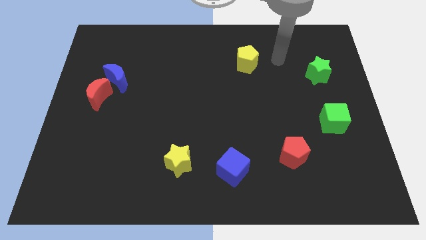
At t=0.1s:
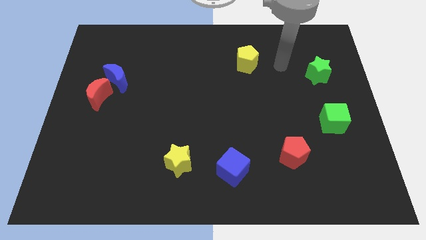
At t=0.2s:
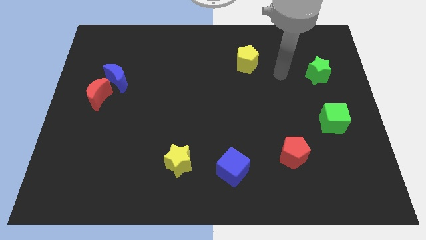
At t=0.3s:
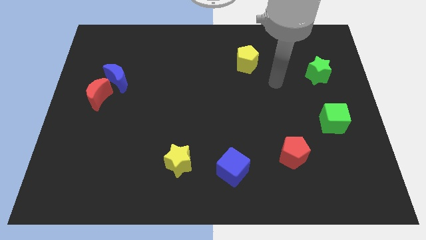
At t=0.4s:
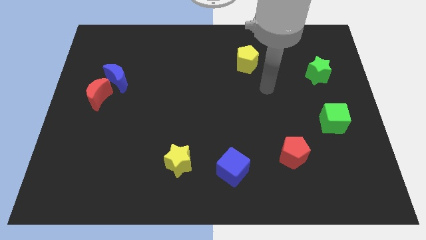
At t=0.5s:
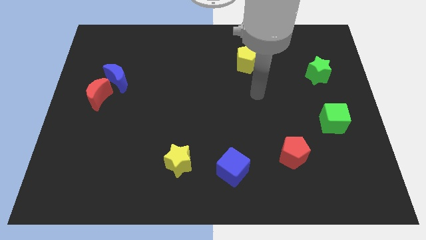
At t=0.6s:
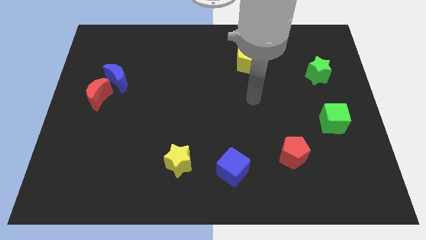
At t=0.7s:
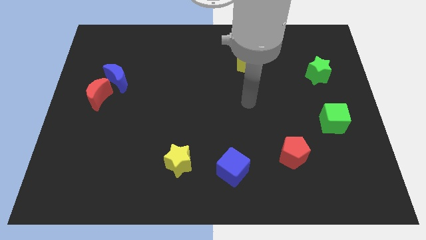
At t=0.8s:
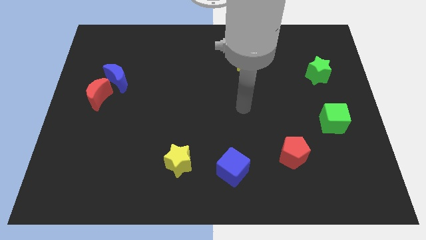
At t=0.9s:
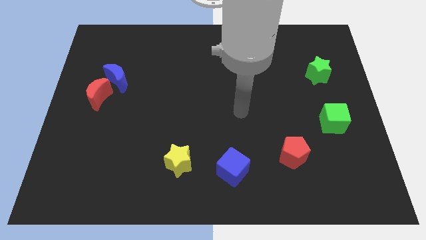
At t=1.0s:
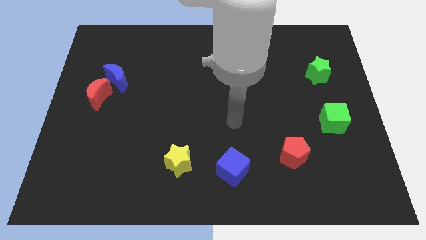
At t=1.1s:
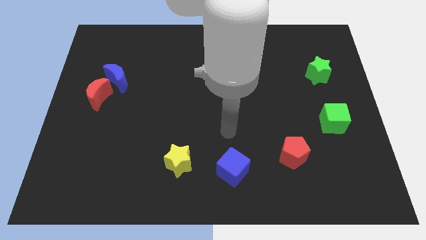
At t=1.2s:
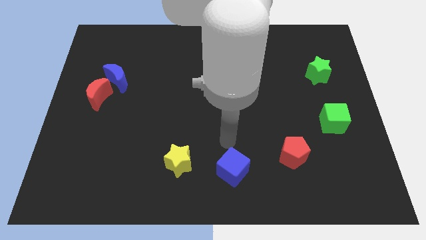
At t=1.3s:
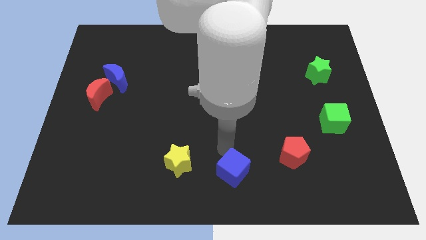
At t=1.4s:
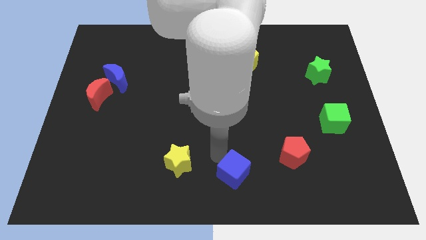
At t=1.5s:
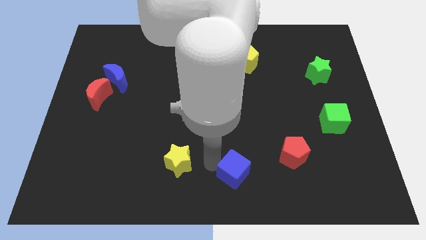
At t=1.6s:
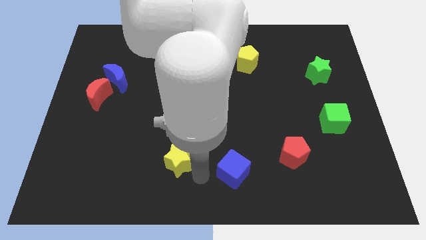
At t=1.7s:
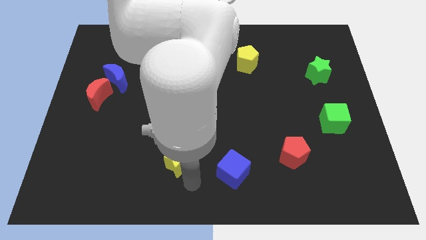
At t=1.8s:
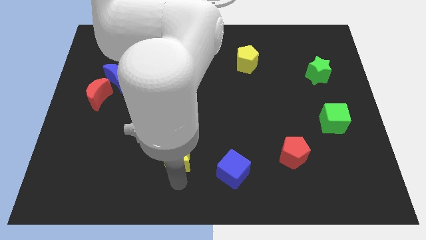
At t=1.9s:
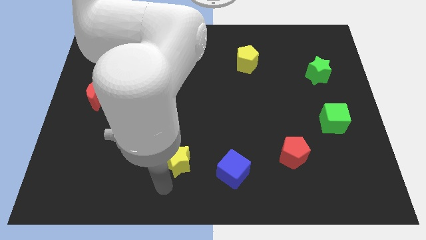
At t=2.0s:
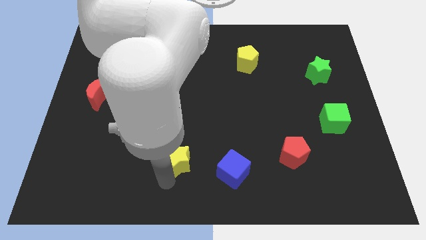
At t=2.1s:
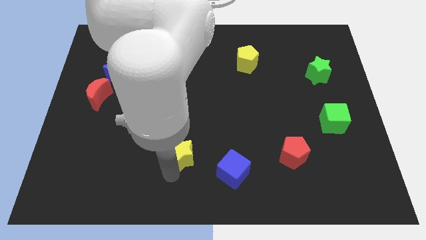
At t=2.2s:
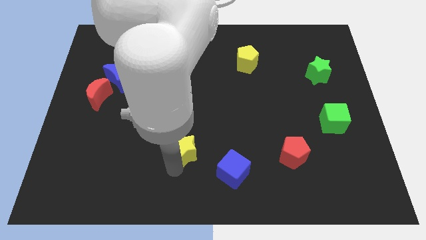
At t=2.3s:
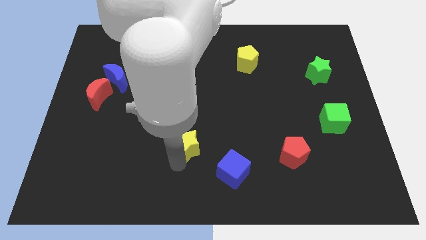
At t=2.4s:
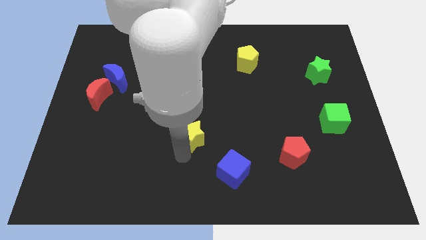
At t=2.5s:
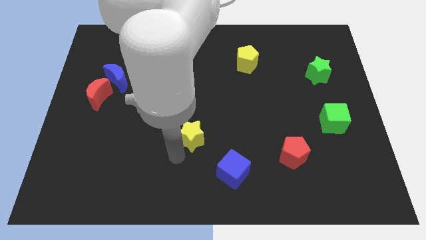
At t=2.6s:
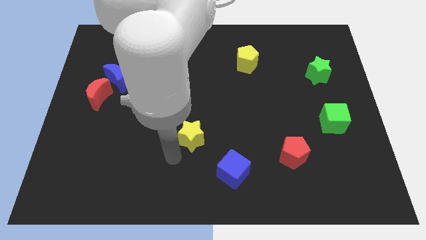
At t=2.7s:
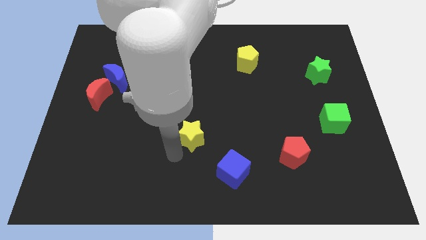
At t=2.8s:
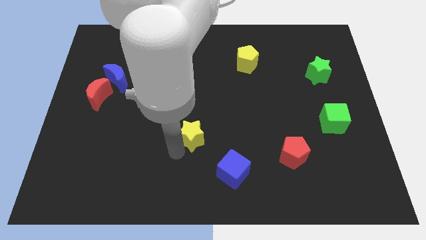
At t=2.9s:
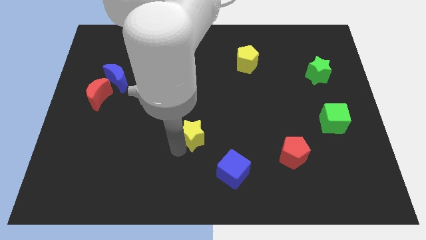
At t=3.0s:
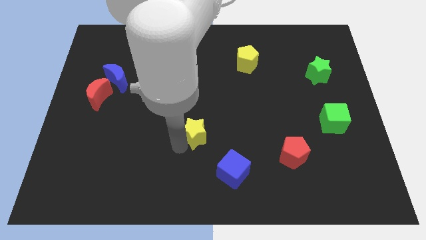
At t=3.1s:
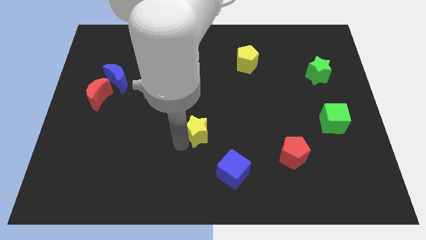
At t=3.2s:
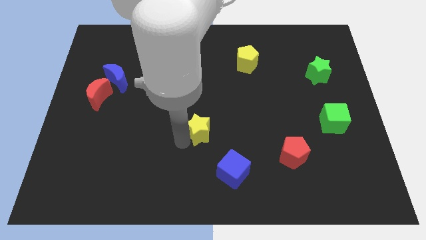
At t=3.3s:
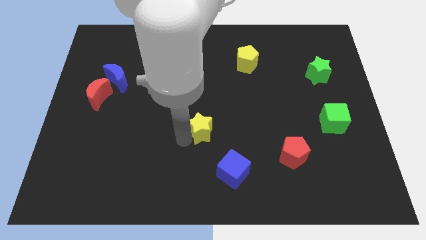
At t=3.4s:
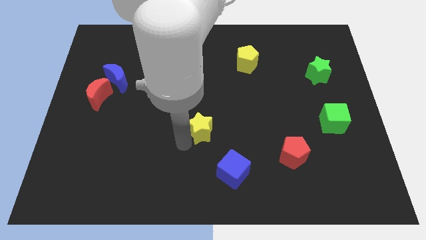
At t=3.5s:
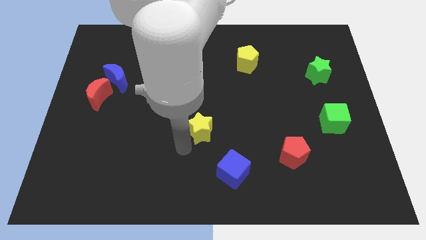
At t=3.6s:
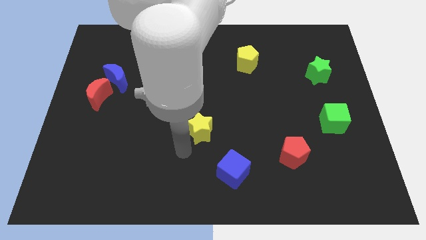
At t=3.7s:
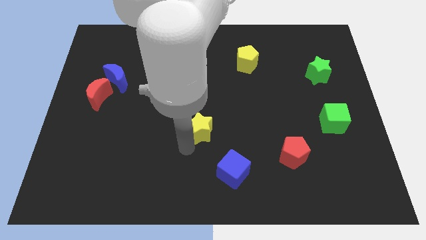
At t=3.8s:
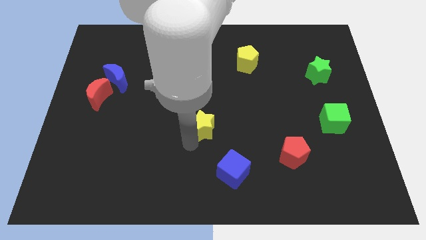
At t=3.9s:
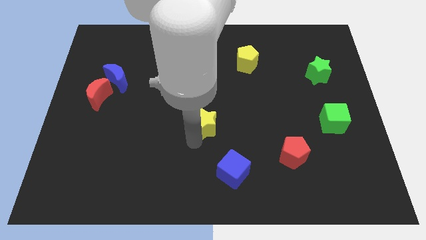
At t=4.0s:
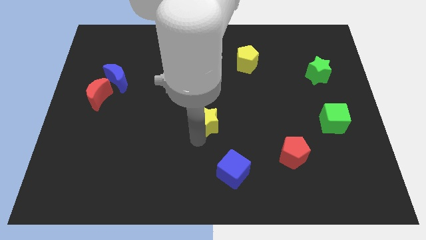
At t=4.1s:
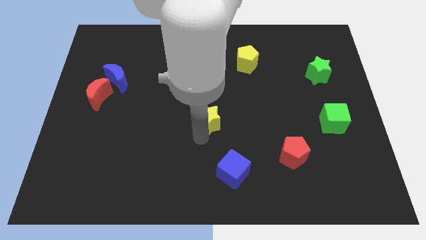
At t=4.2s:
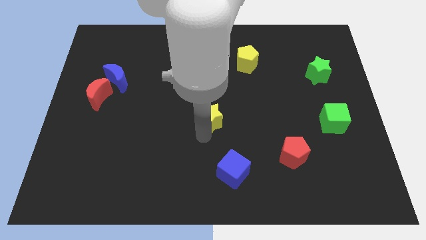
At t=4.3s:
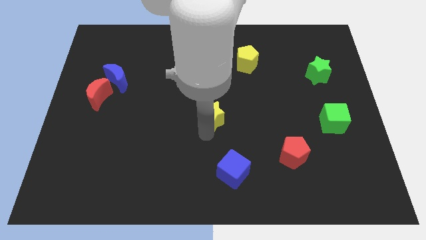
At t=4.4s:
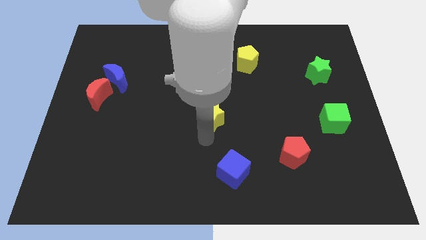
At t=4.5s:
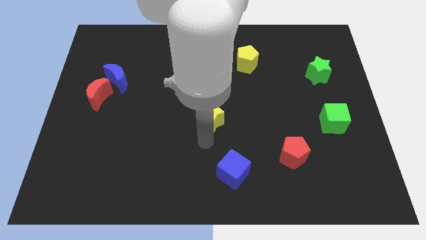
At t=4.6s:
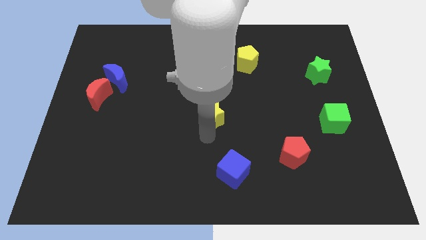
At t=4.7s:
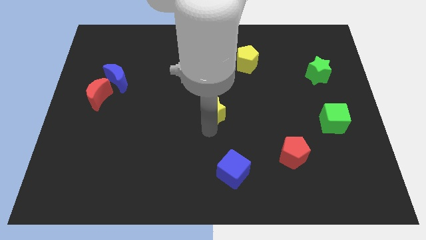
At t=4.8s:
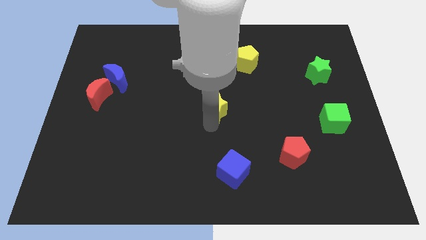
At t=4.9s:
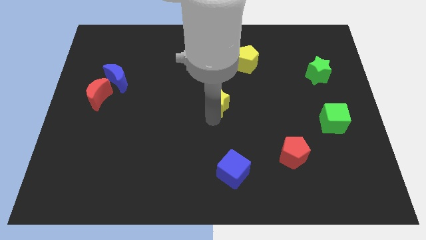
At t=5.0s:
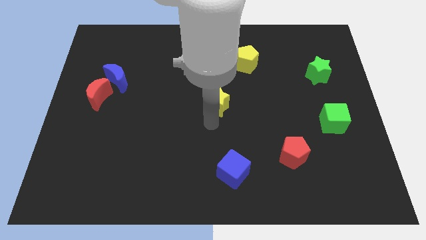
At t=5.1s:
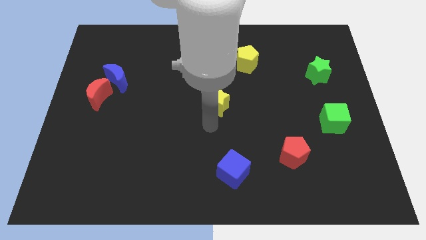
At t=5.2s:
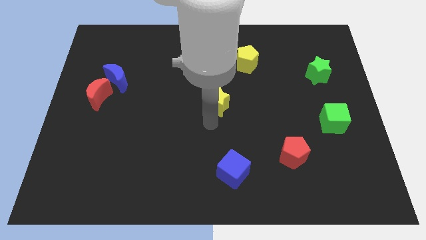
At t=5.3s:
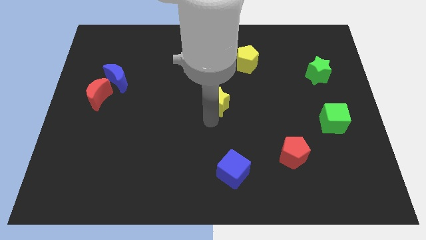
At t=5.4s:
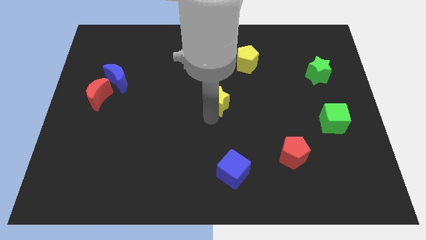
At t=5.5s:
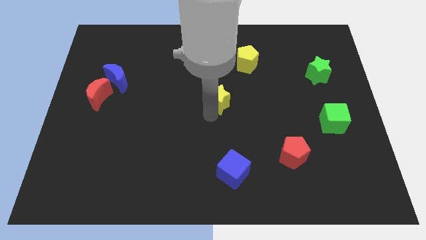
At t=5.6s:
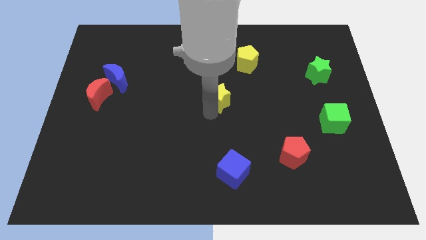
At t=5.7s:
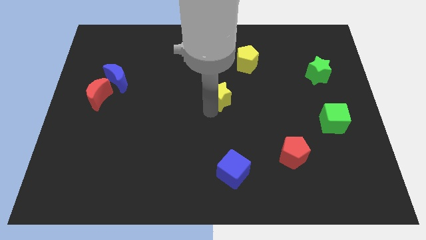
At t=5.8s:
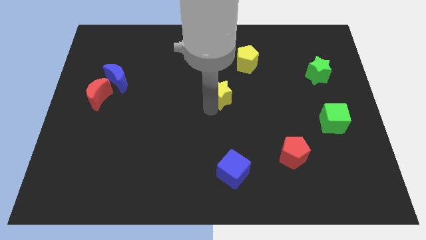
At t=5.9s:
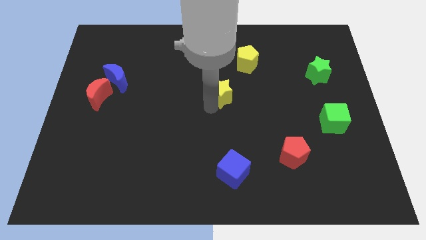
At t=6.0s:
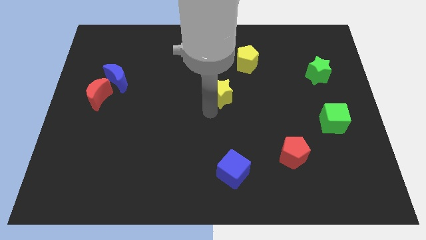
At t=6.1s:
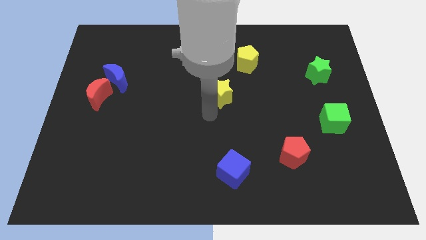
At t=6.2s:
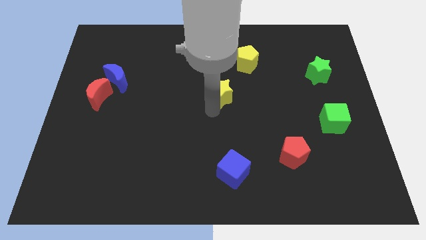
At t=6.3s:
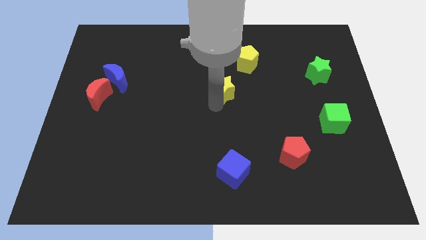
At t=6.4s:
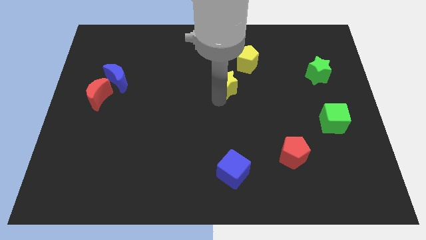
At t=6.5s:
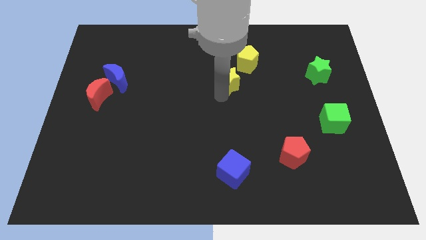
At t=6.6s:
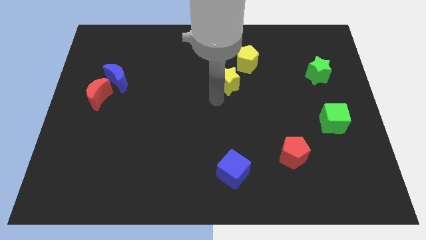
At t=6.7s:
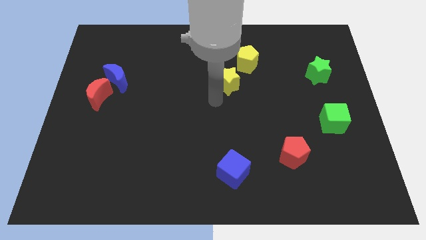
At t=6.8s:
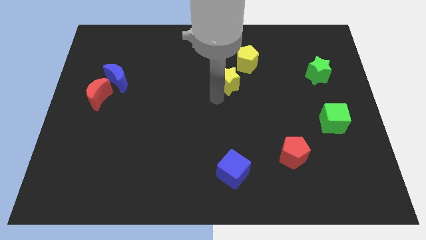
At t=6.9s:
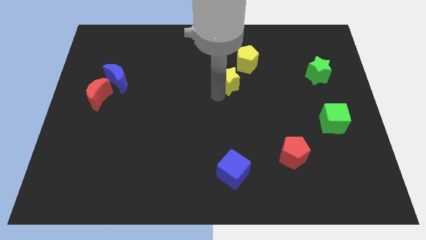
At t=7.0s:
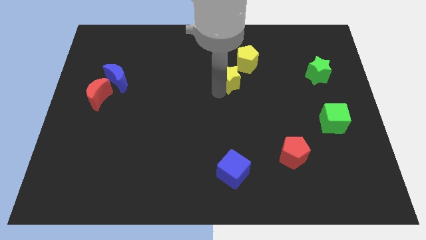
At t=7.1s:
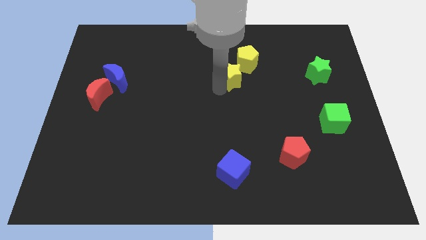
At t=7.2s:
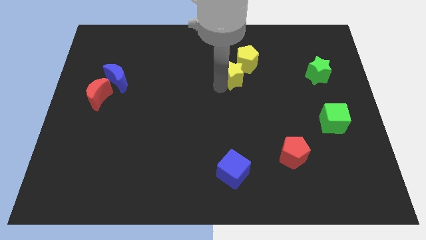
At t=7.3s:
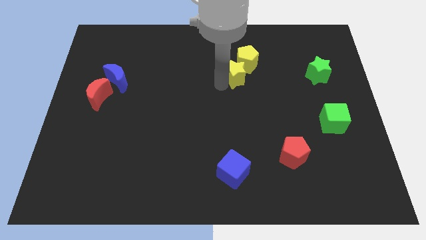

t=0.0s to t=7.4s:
put the yellow star next to the yellow pentagon
